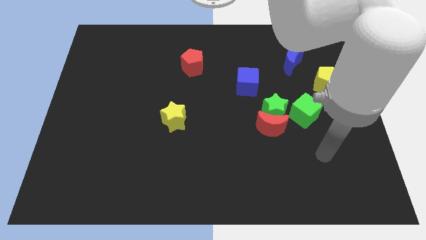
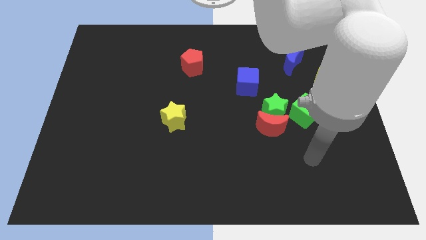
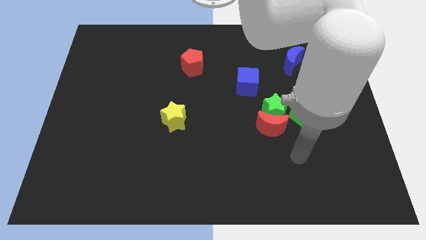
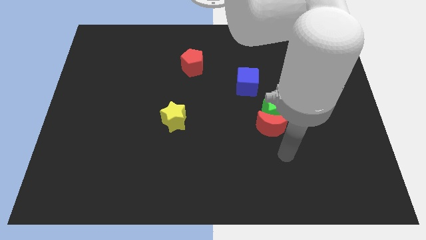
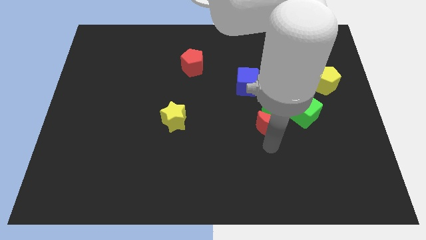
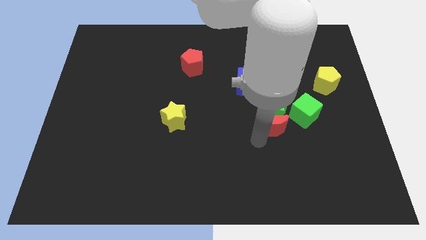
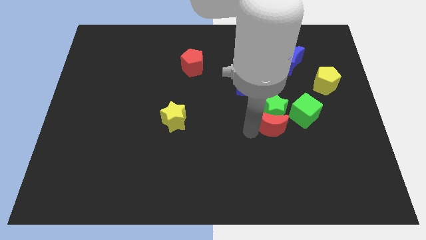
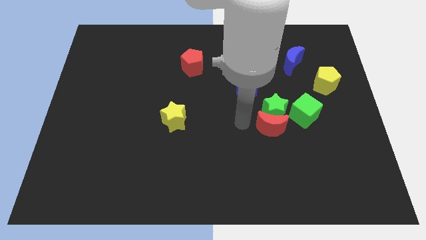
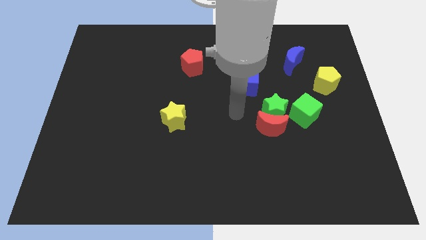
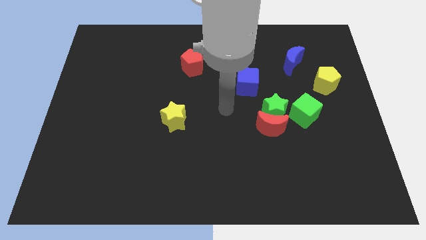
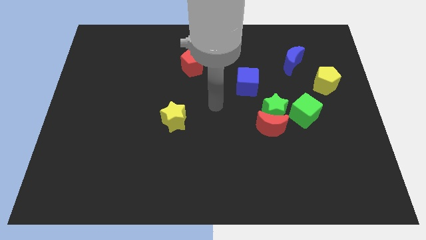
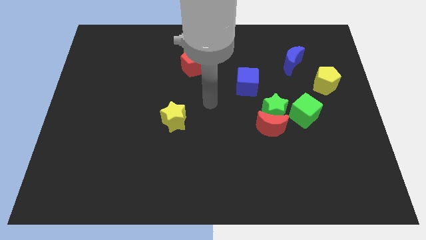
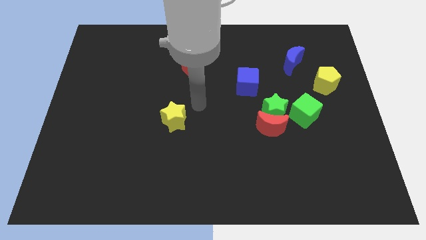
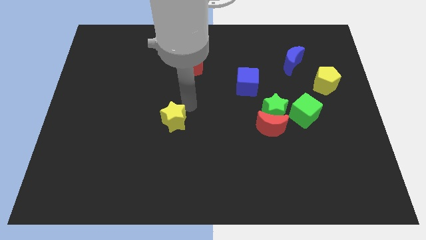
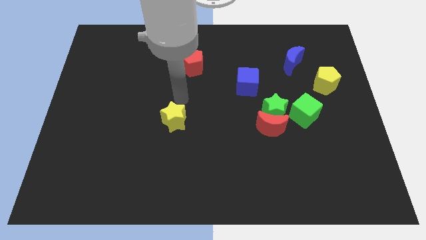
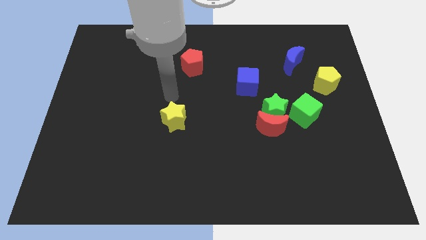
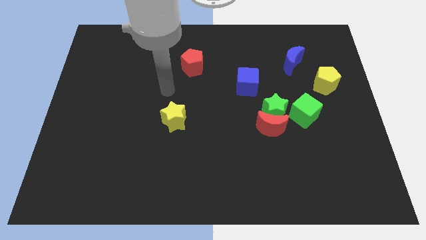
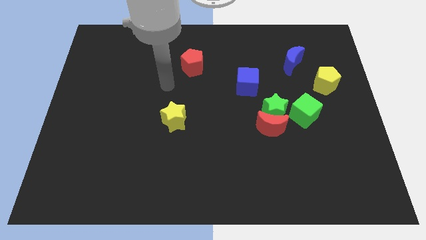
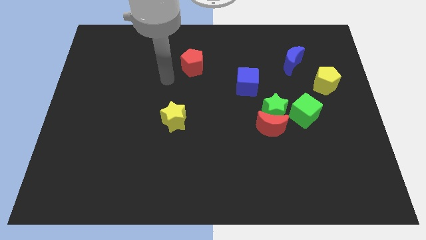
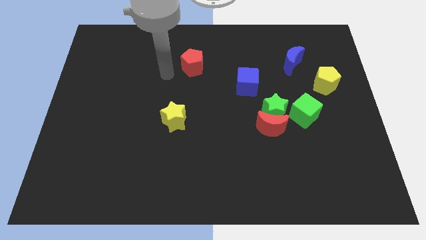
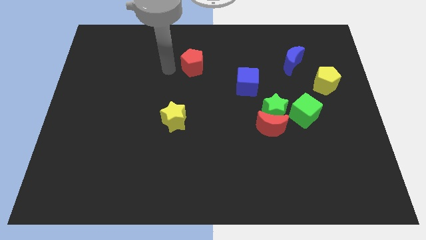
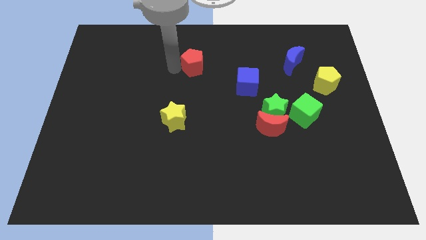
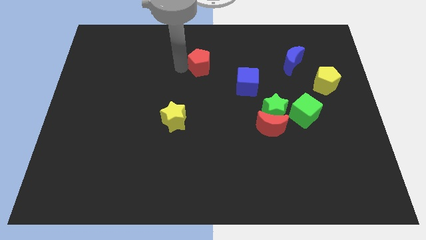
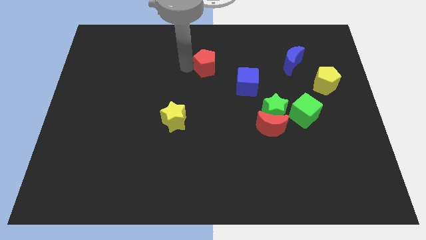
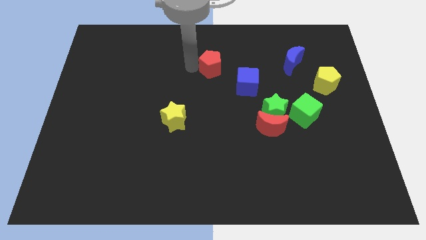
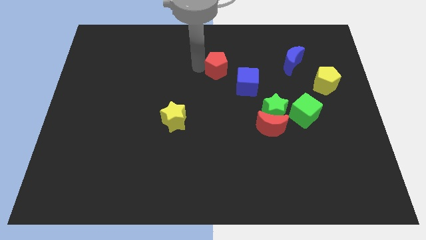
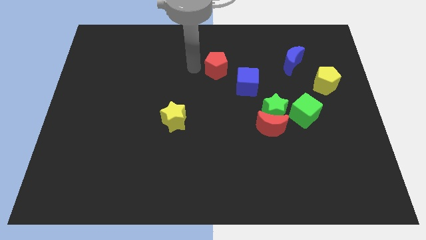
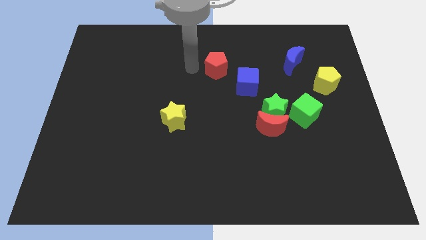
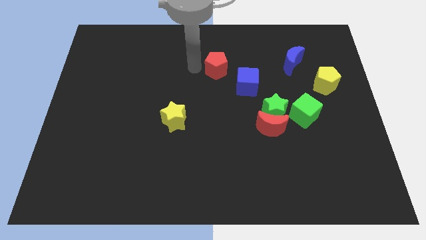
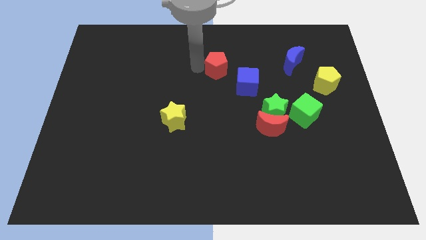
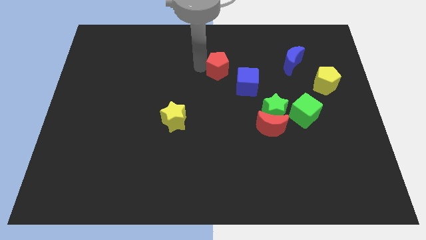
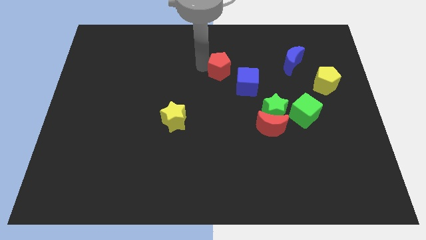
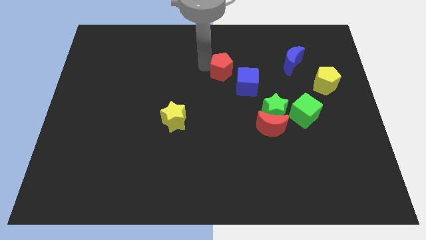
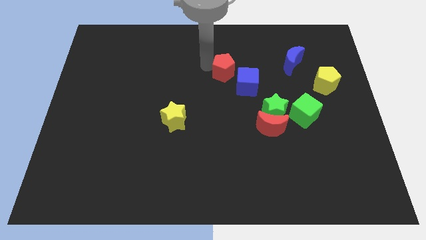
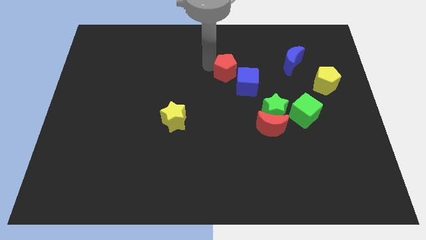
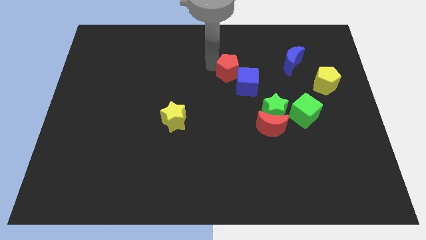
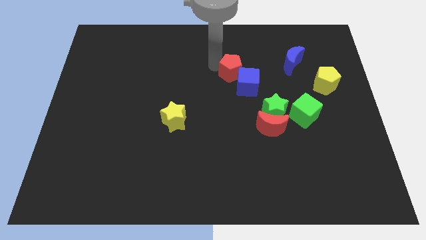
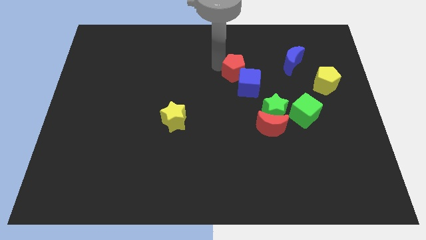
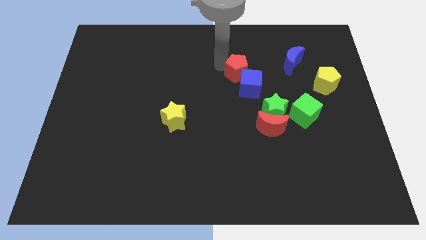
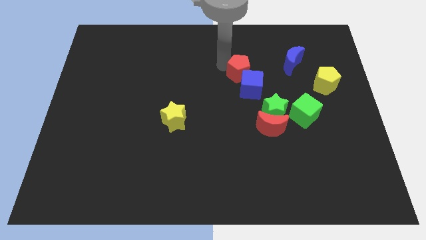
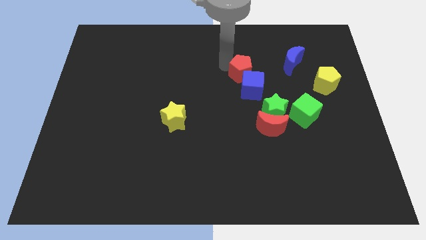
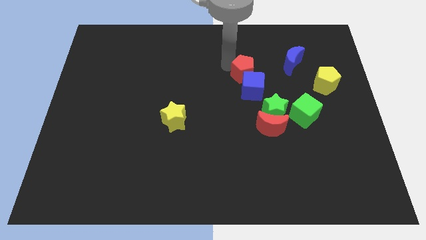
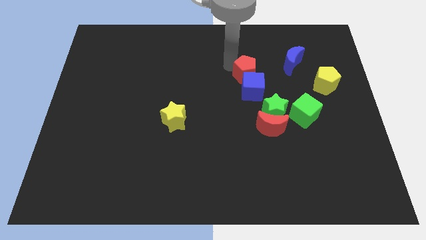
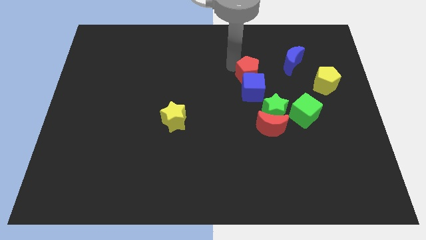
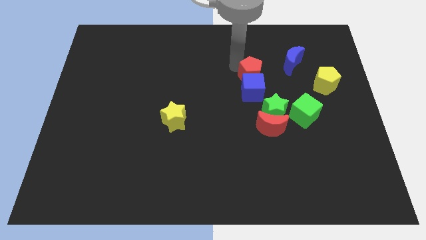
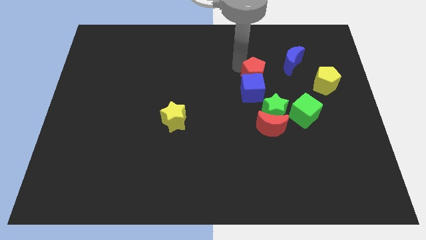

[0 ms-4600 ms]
slide the red pentagon to the bottom left side of the blue moon

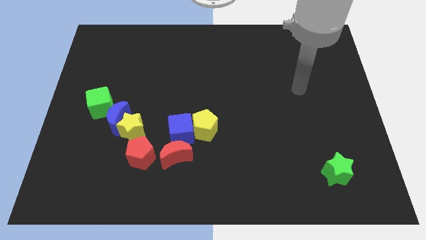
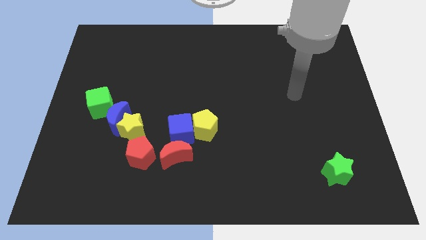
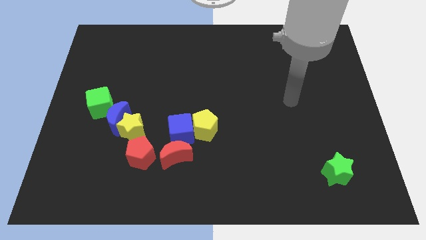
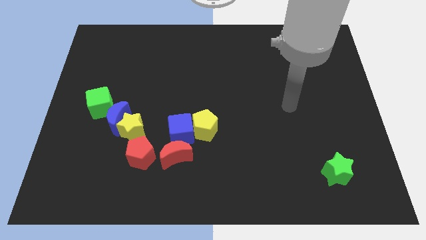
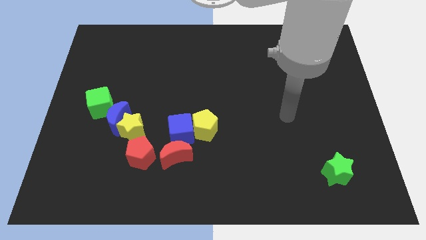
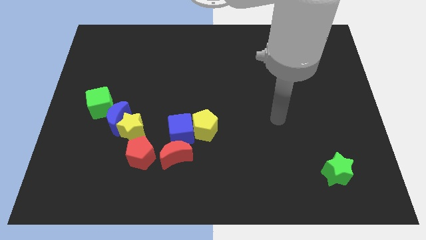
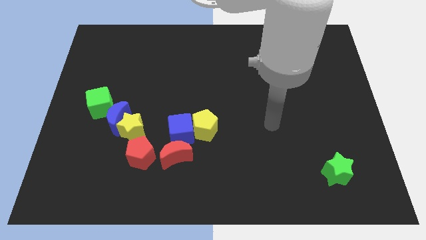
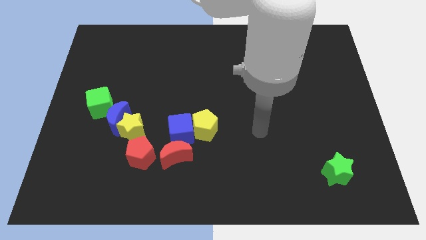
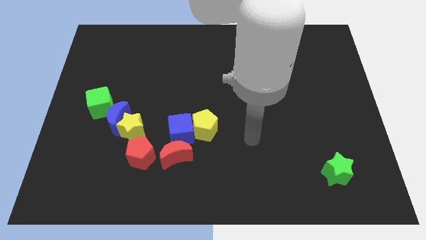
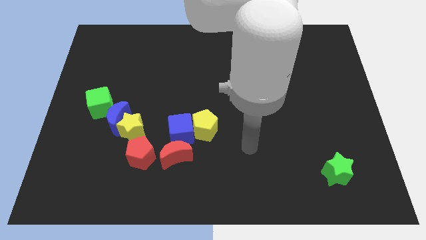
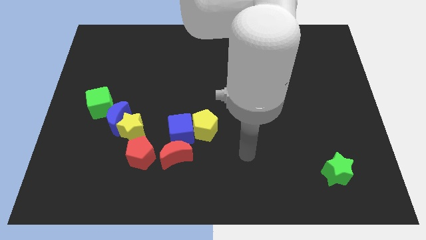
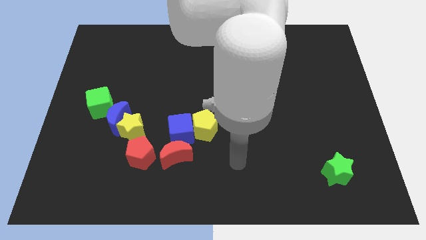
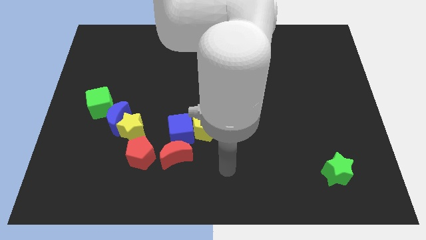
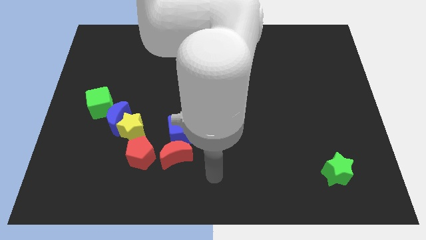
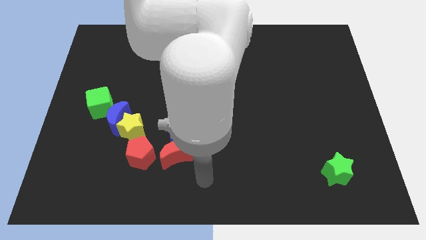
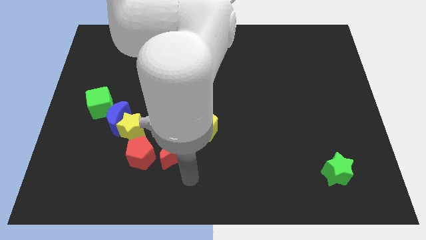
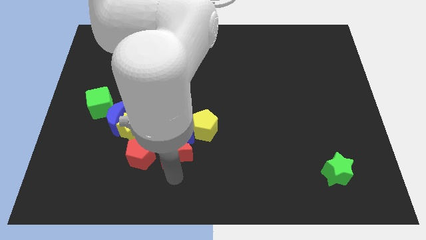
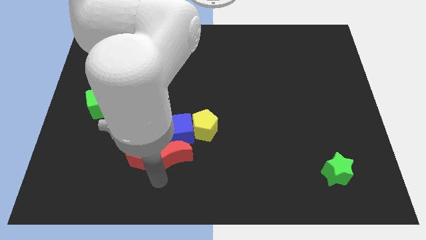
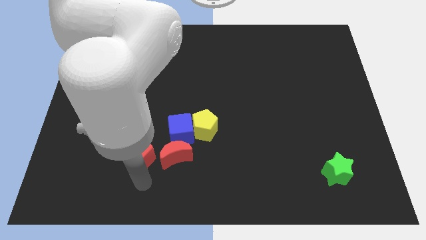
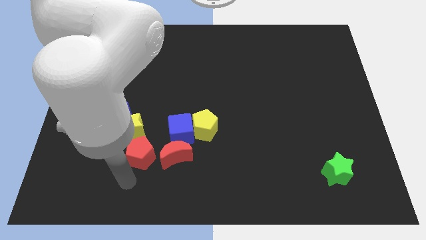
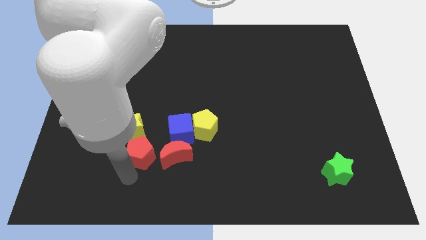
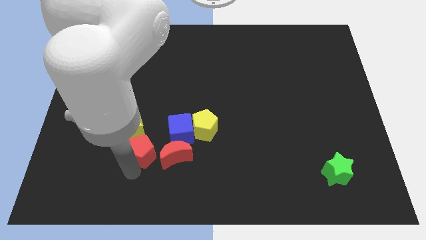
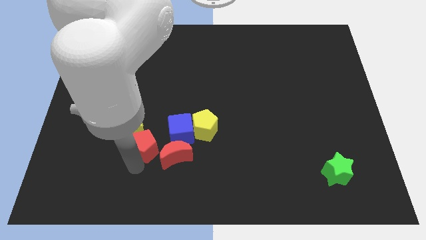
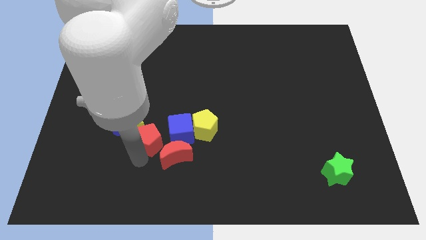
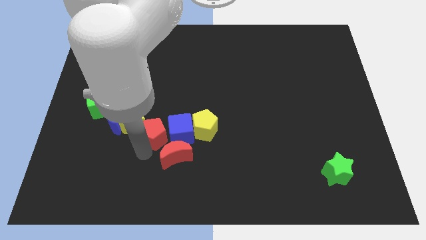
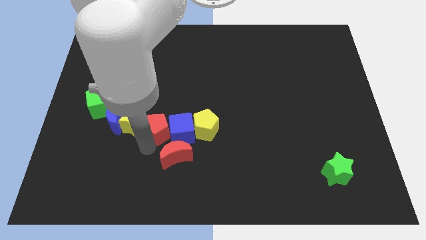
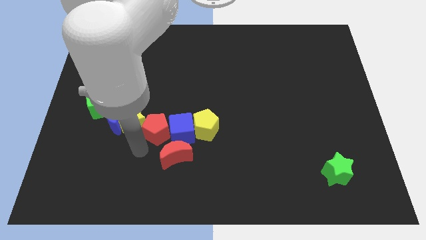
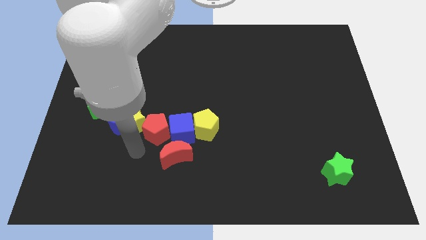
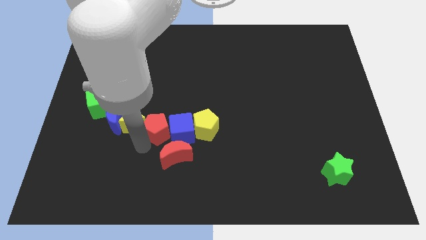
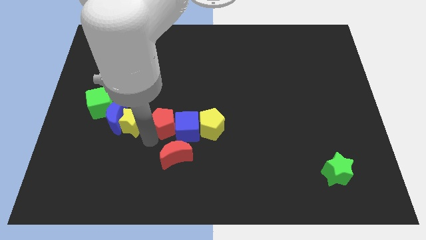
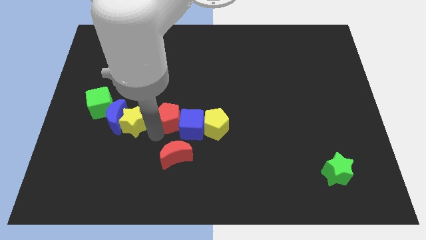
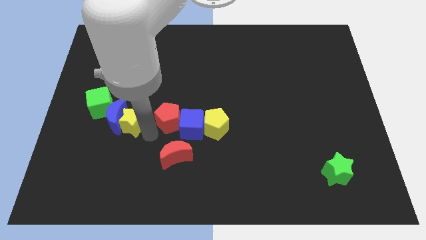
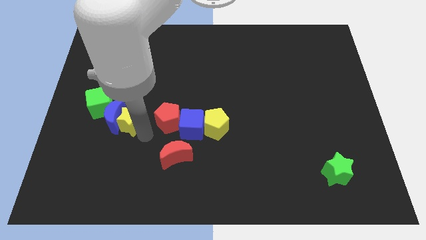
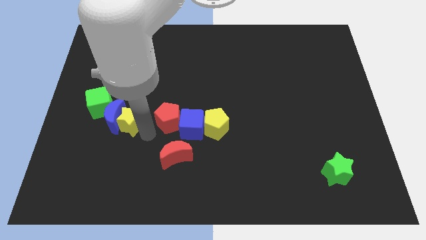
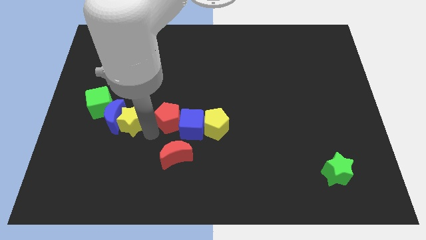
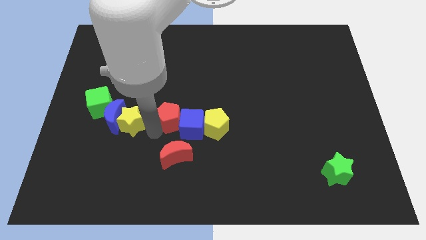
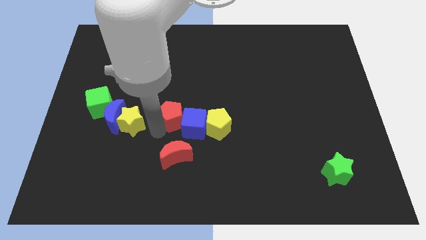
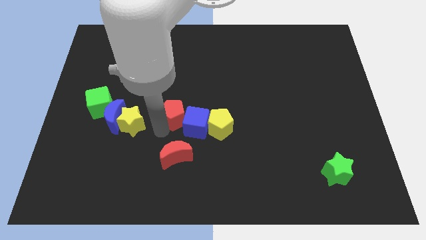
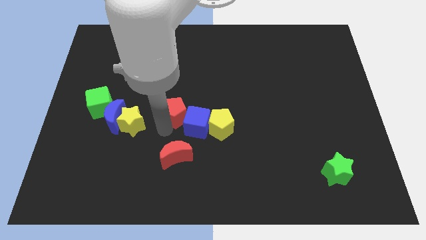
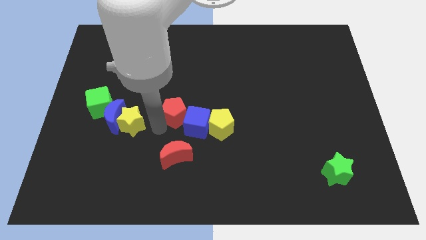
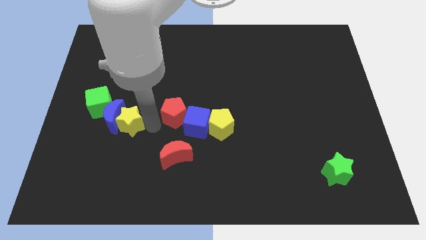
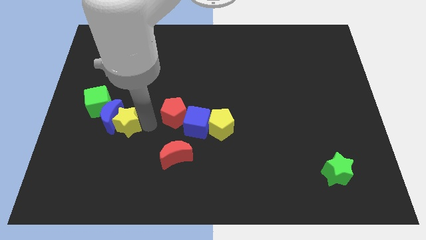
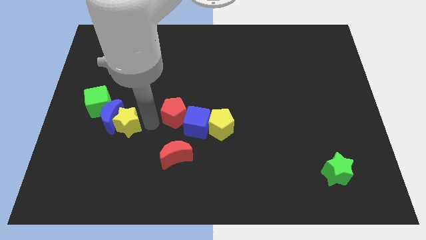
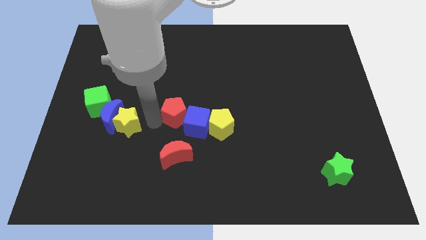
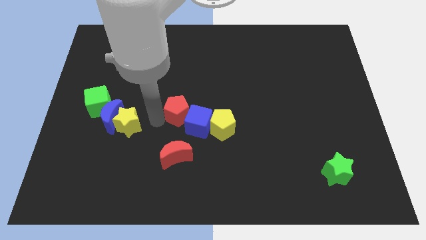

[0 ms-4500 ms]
slide the red pentagon diagonally up and to the left of the yellow pentagon
